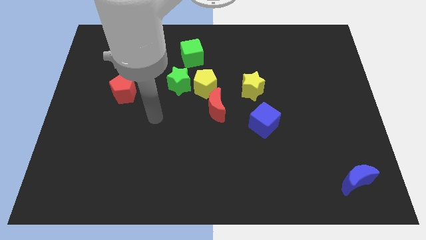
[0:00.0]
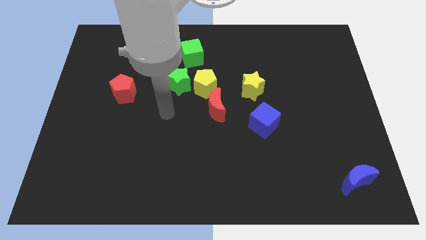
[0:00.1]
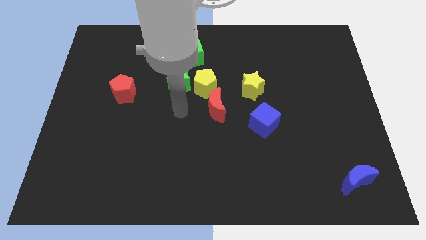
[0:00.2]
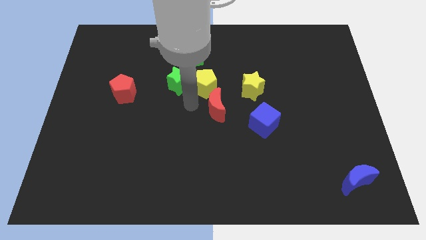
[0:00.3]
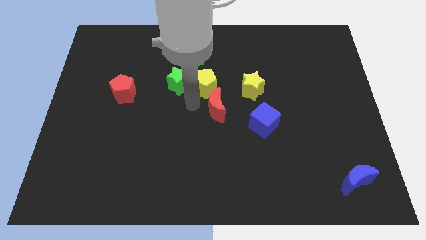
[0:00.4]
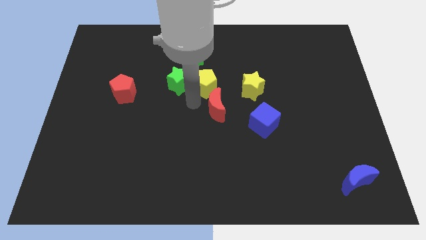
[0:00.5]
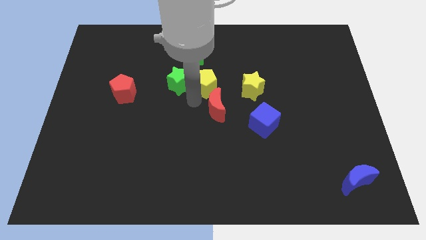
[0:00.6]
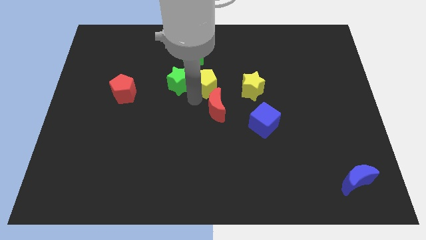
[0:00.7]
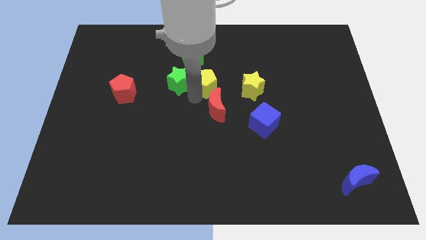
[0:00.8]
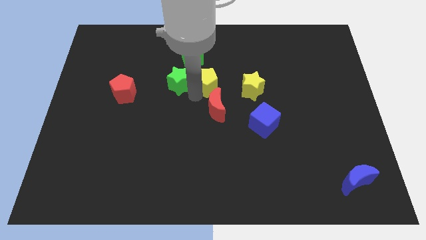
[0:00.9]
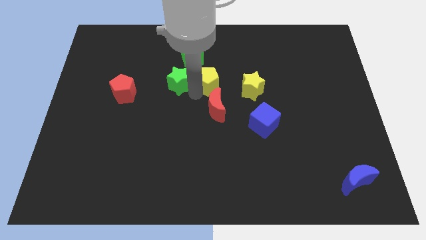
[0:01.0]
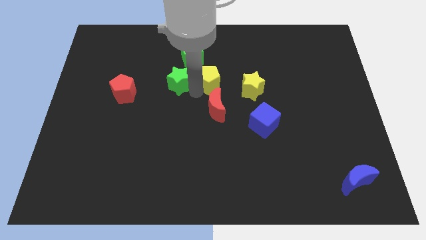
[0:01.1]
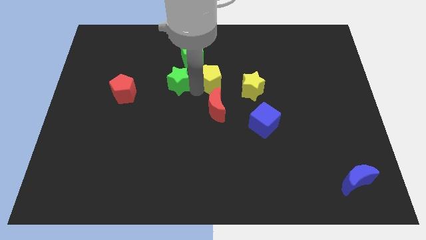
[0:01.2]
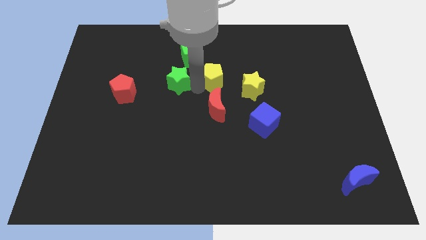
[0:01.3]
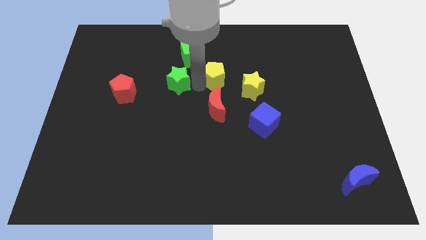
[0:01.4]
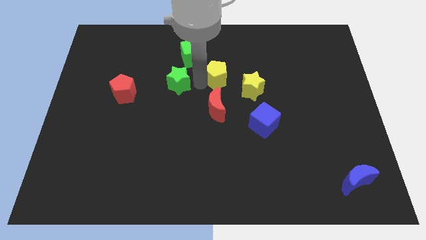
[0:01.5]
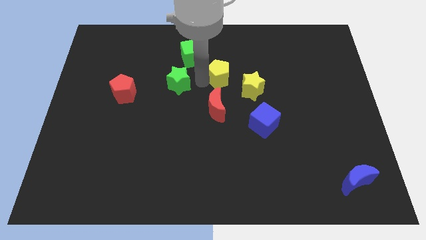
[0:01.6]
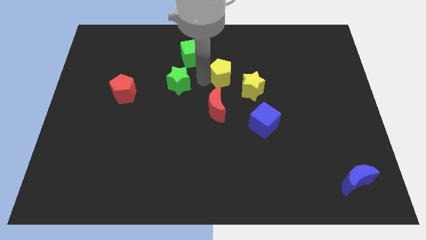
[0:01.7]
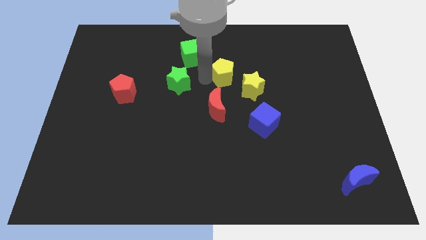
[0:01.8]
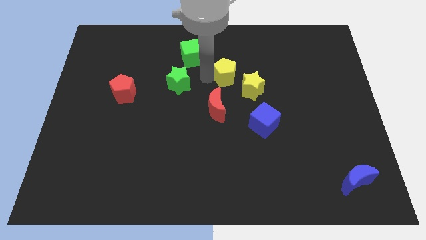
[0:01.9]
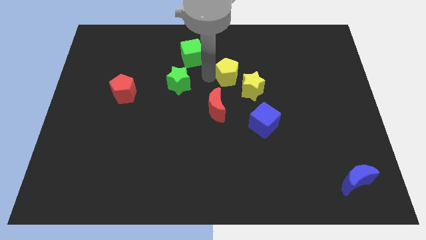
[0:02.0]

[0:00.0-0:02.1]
pull the yellow pentagon apart from the green star and red moon

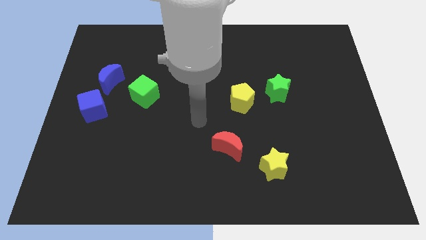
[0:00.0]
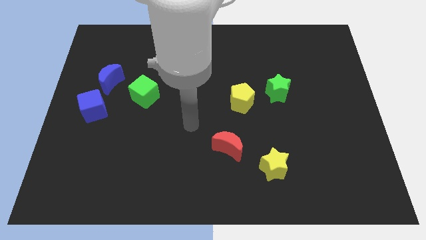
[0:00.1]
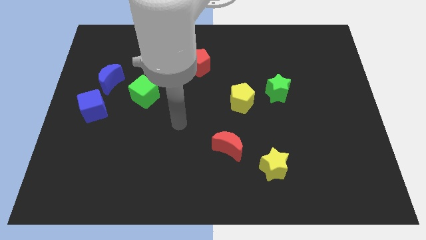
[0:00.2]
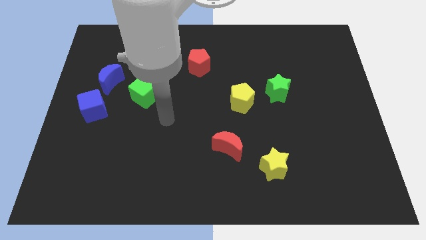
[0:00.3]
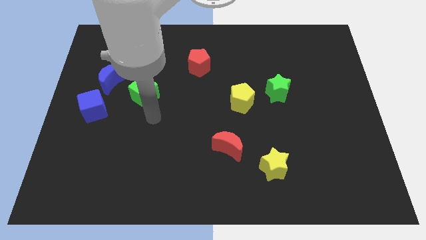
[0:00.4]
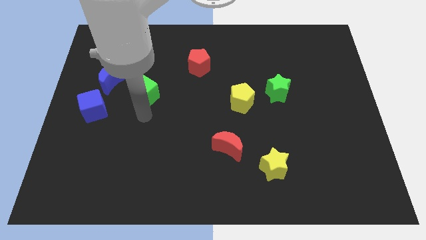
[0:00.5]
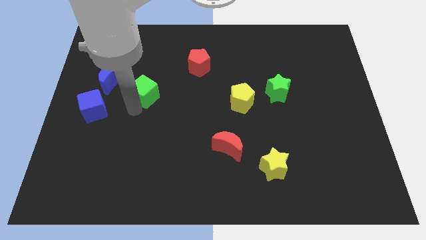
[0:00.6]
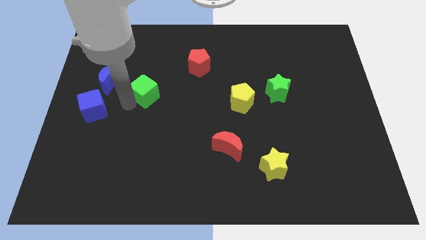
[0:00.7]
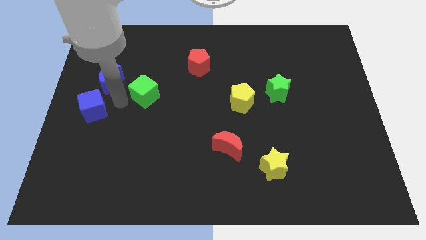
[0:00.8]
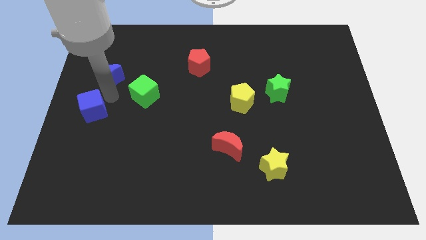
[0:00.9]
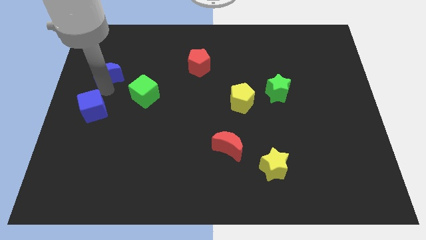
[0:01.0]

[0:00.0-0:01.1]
pull the blue cube apart from the blue moon

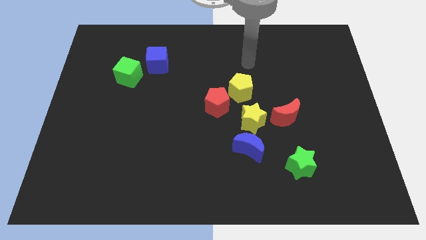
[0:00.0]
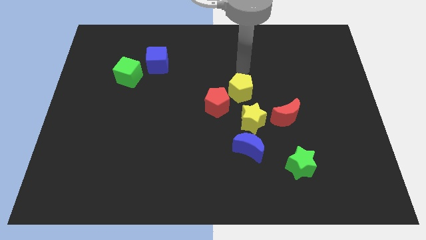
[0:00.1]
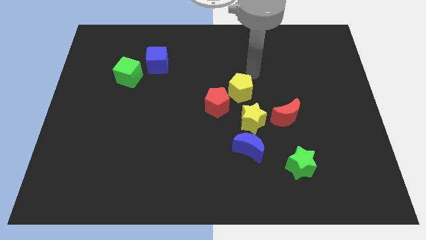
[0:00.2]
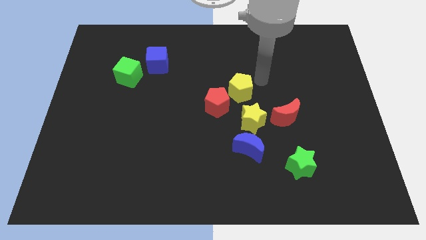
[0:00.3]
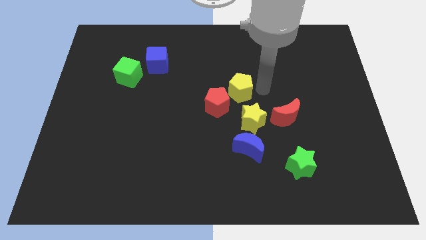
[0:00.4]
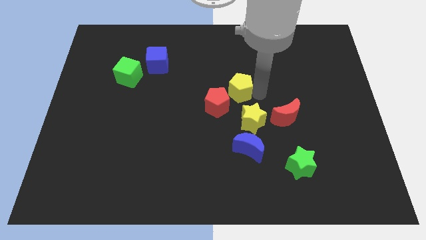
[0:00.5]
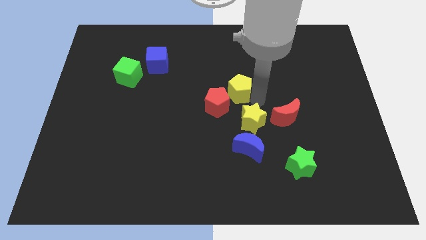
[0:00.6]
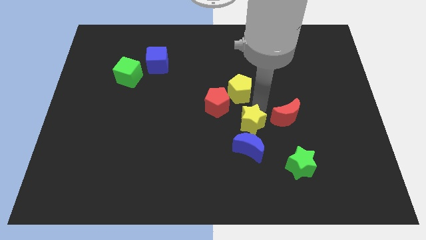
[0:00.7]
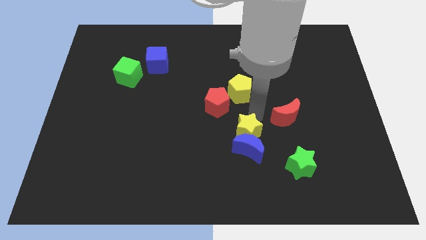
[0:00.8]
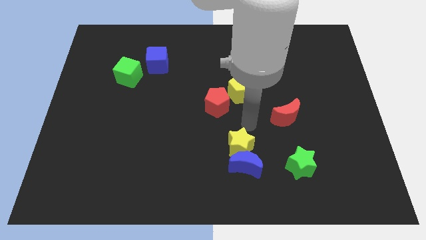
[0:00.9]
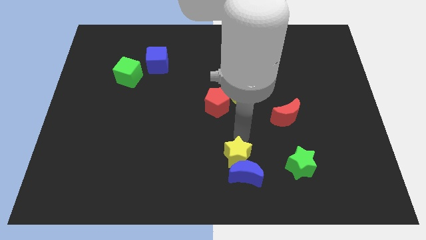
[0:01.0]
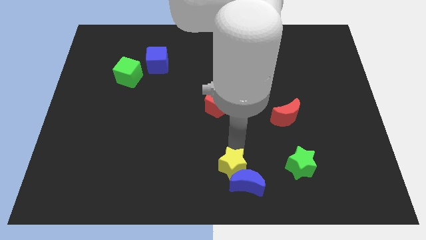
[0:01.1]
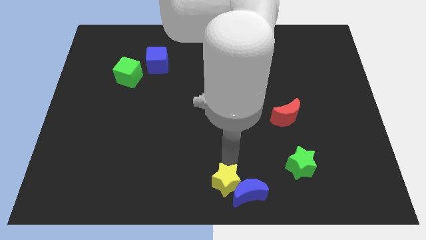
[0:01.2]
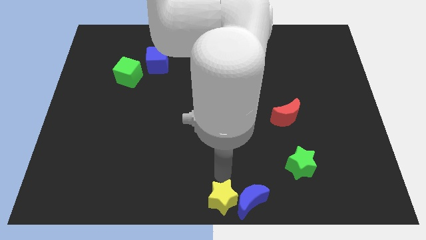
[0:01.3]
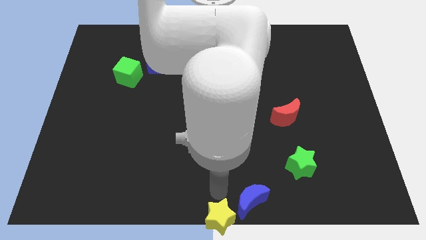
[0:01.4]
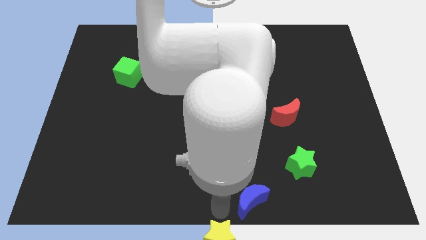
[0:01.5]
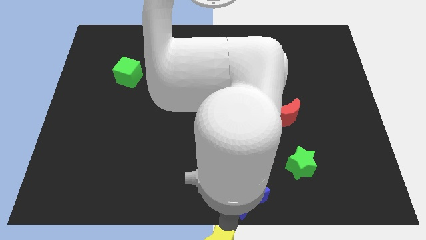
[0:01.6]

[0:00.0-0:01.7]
pull the blue moon apart from the yellow star

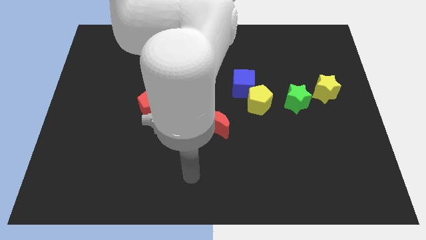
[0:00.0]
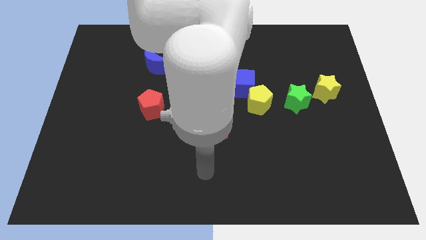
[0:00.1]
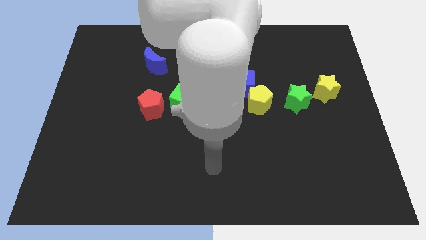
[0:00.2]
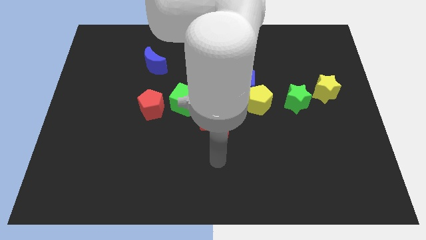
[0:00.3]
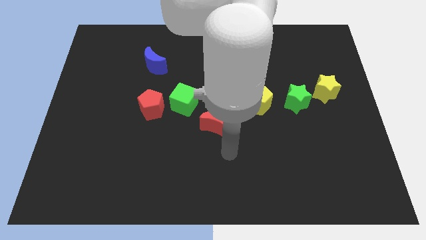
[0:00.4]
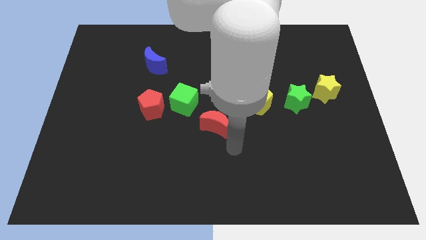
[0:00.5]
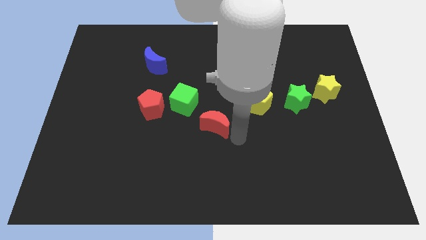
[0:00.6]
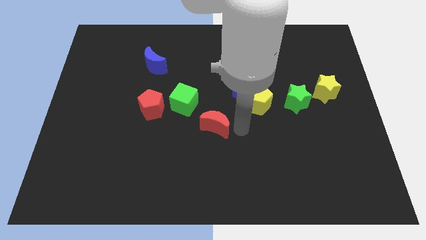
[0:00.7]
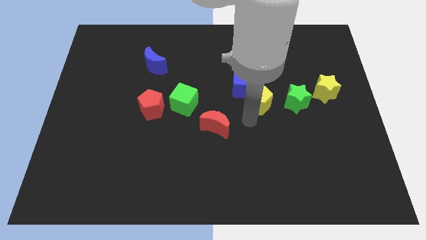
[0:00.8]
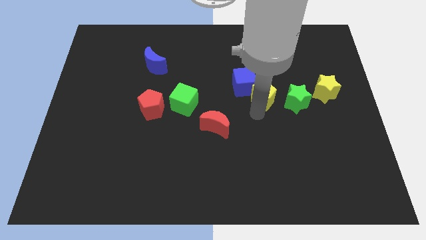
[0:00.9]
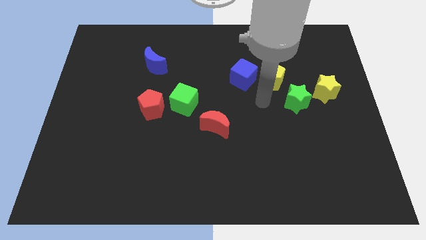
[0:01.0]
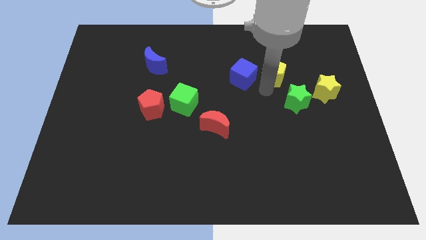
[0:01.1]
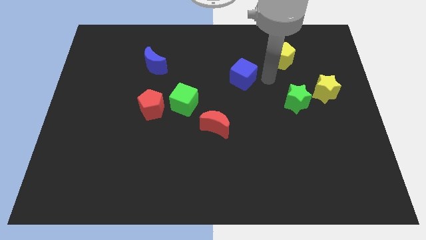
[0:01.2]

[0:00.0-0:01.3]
move the blue cube away from the yellow pentagon

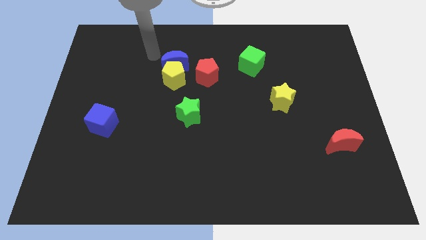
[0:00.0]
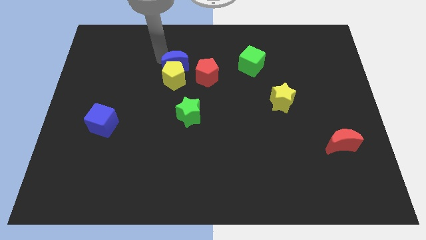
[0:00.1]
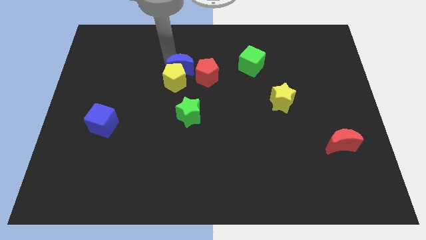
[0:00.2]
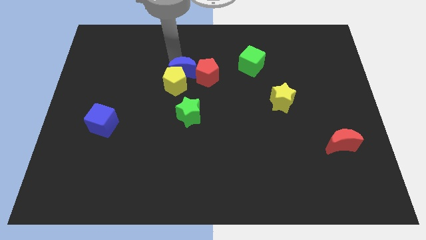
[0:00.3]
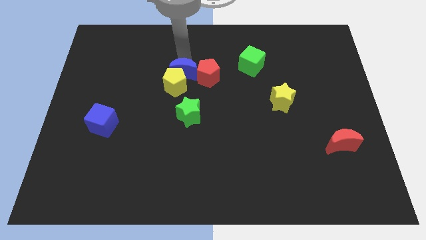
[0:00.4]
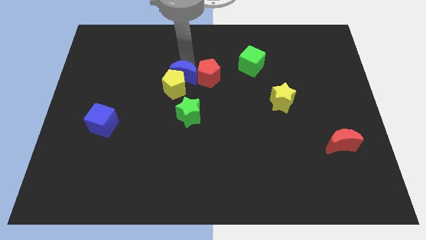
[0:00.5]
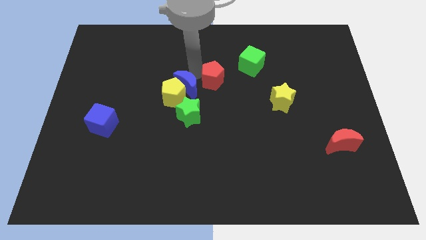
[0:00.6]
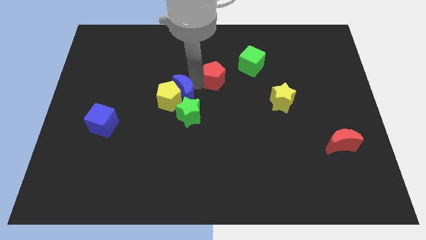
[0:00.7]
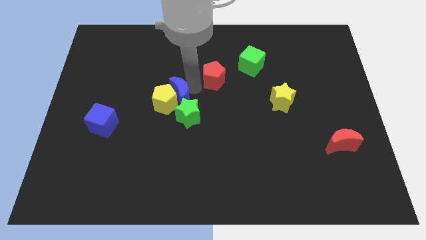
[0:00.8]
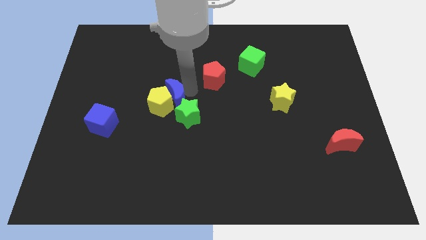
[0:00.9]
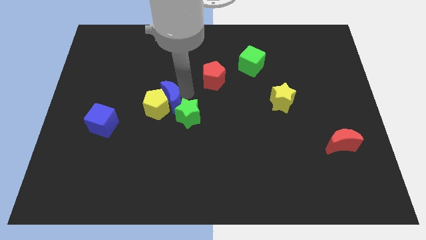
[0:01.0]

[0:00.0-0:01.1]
separate the yellow pentagon from the blue moon and red pentagon

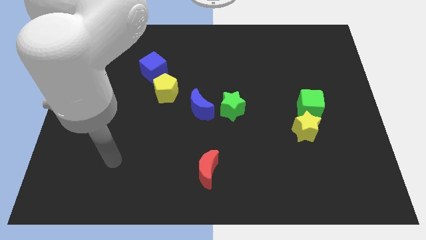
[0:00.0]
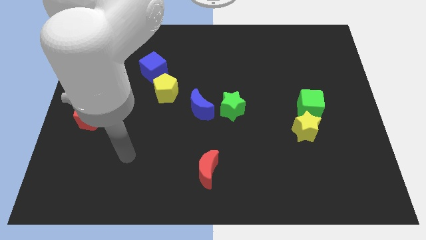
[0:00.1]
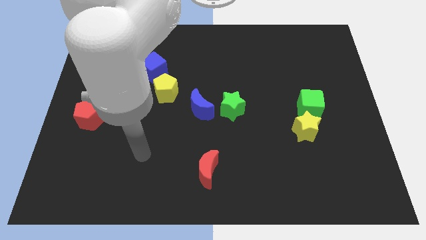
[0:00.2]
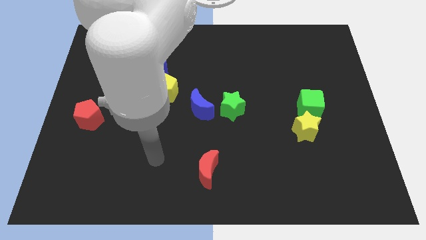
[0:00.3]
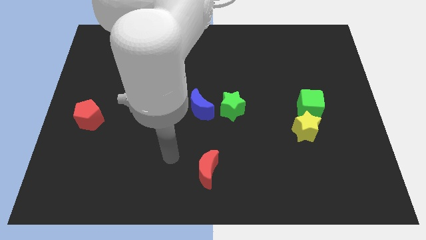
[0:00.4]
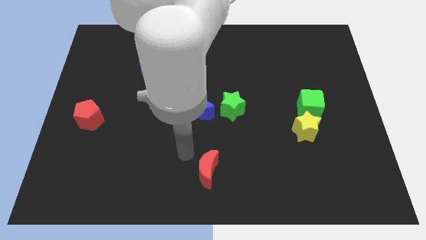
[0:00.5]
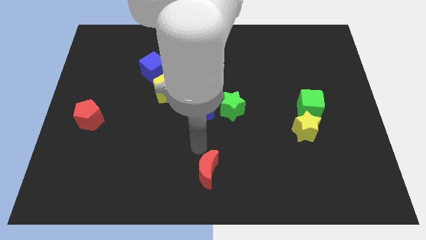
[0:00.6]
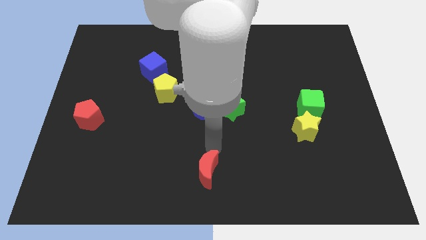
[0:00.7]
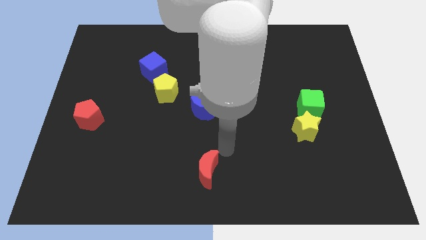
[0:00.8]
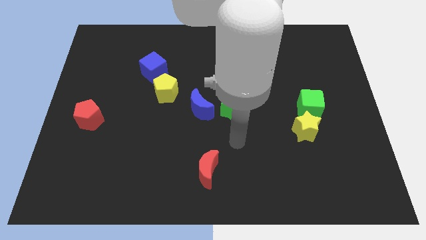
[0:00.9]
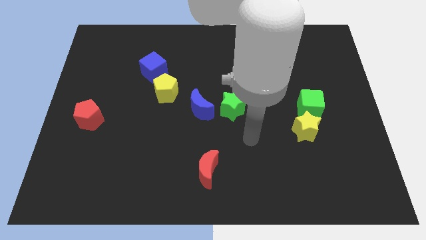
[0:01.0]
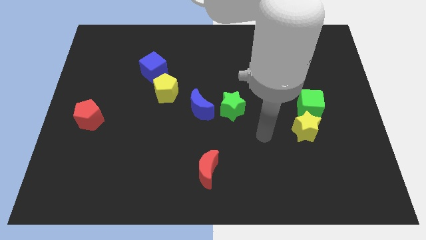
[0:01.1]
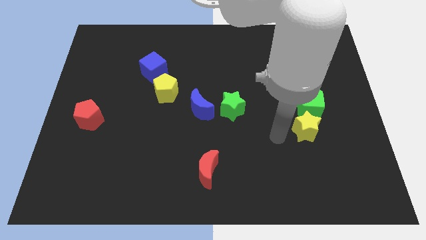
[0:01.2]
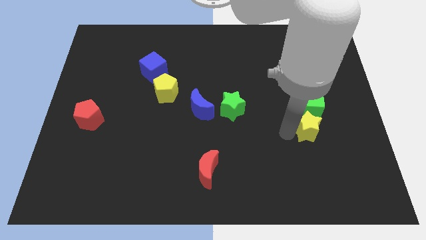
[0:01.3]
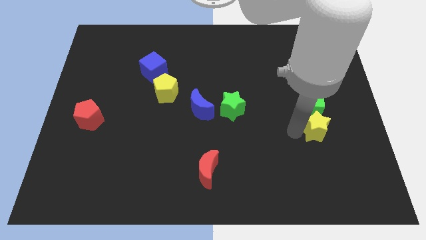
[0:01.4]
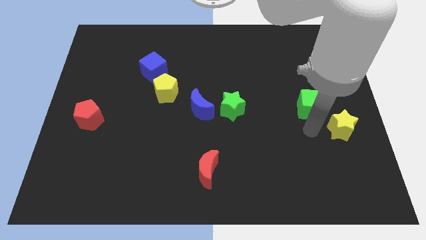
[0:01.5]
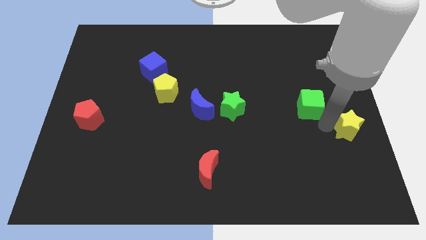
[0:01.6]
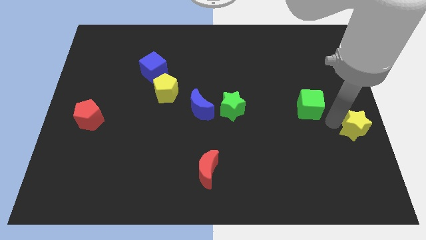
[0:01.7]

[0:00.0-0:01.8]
pull the green cube apart from the yellow star

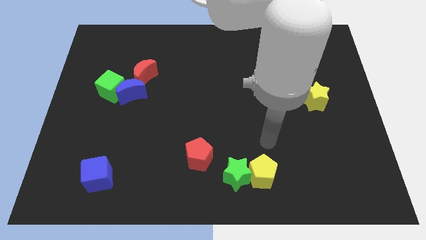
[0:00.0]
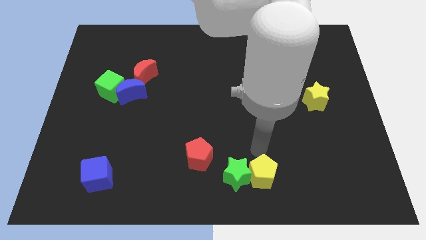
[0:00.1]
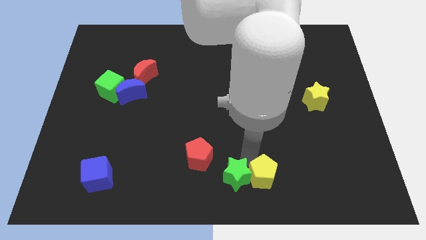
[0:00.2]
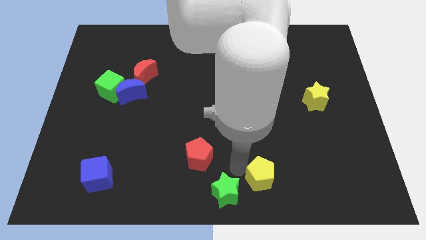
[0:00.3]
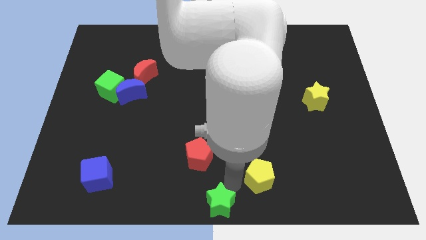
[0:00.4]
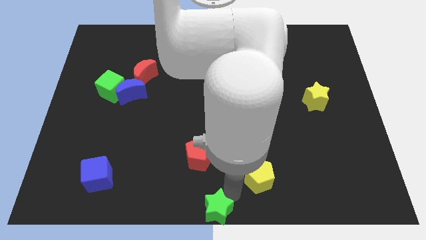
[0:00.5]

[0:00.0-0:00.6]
separate the yellow pentagon from the green star
